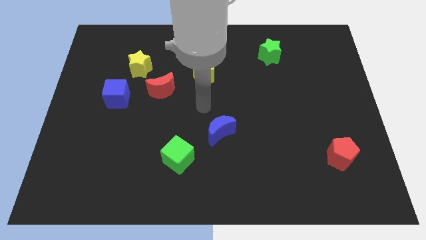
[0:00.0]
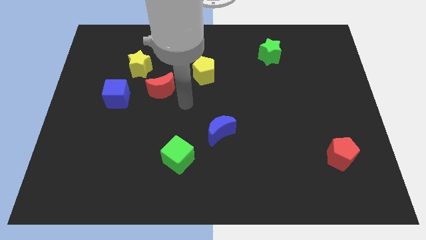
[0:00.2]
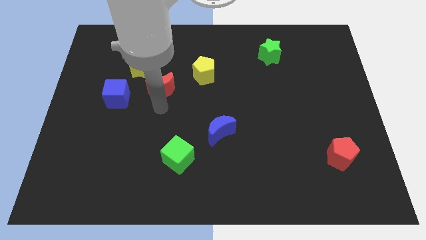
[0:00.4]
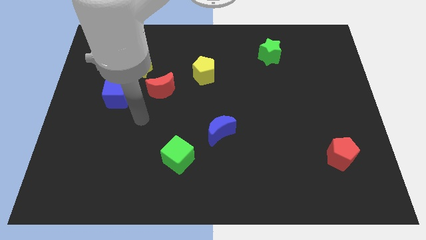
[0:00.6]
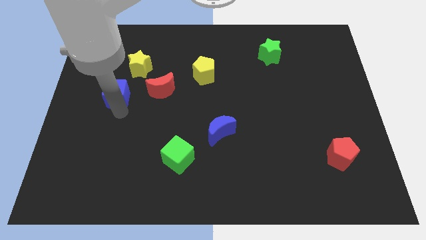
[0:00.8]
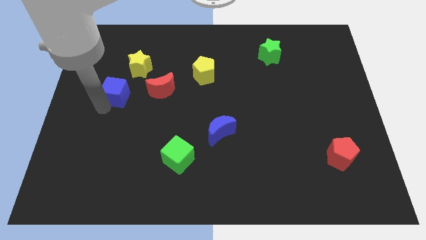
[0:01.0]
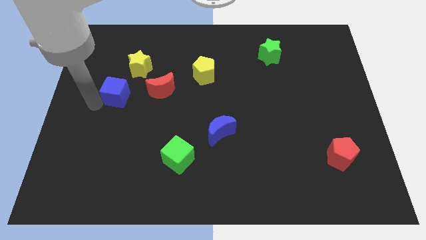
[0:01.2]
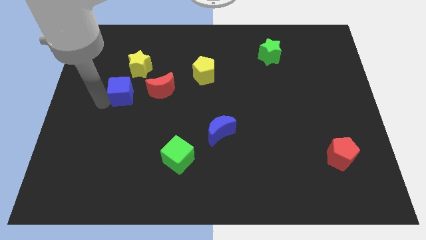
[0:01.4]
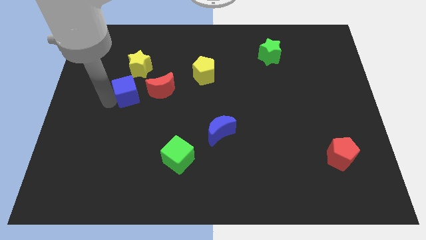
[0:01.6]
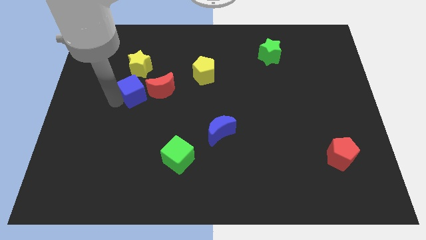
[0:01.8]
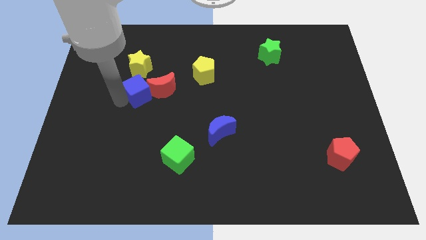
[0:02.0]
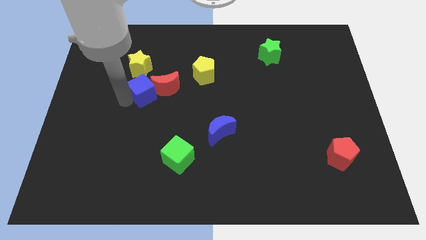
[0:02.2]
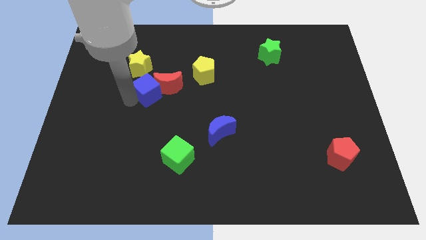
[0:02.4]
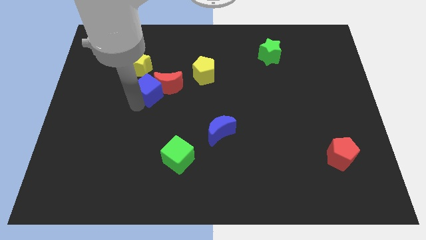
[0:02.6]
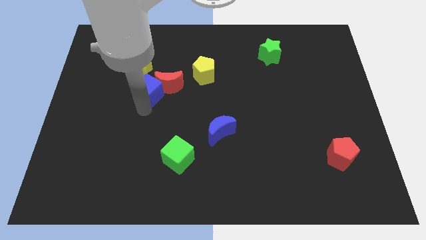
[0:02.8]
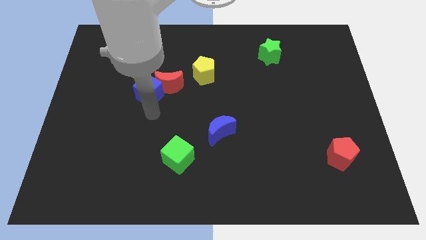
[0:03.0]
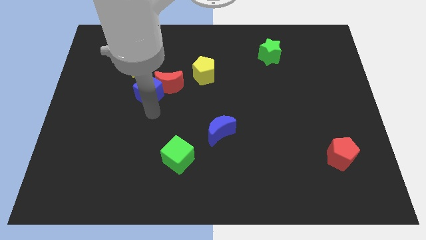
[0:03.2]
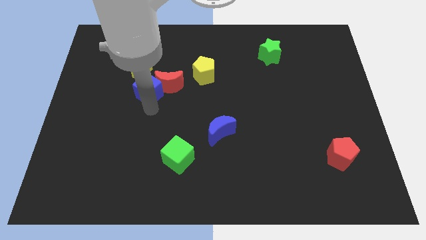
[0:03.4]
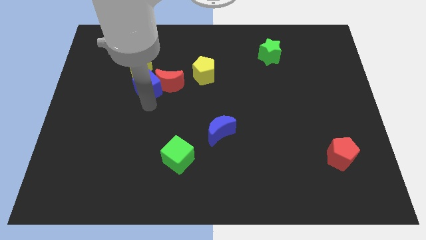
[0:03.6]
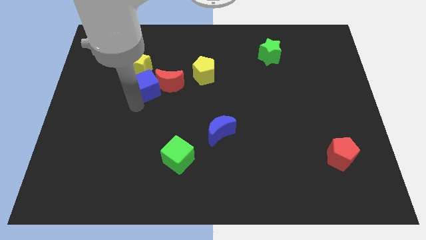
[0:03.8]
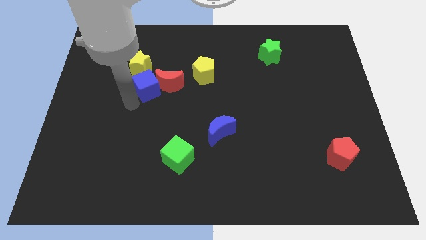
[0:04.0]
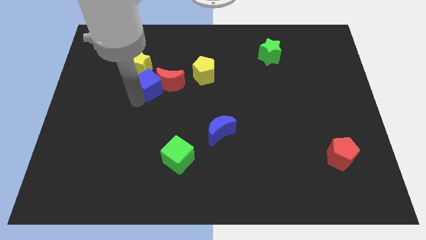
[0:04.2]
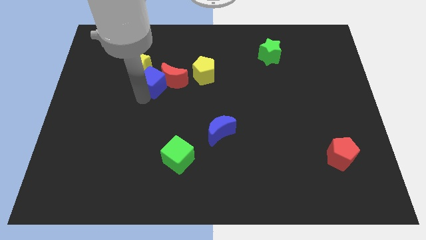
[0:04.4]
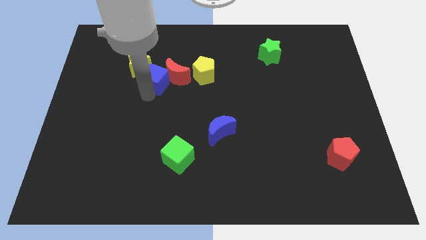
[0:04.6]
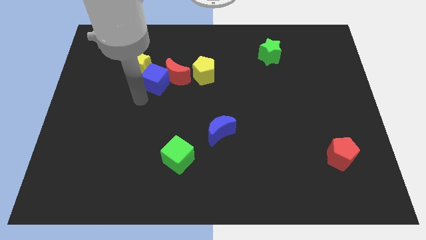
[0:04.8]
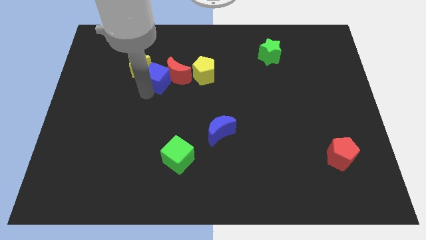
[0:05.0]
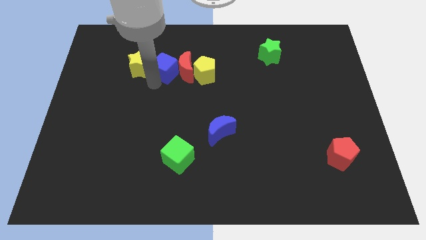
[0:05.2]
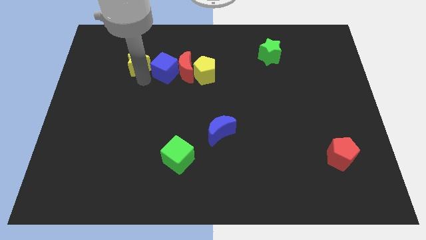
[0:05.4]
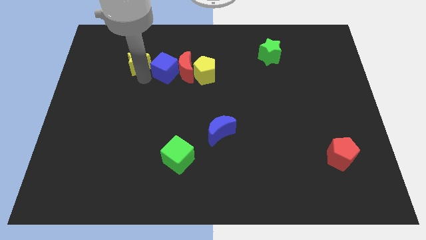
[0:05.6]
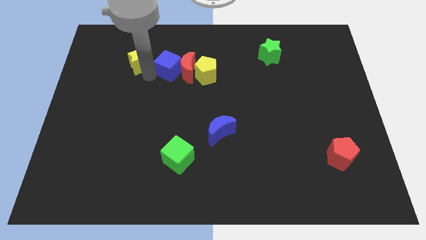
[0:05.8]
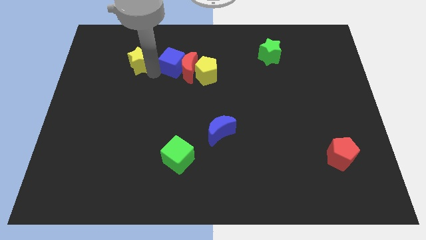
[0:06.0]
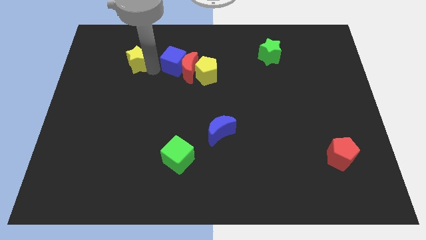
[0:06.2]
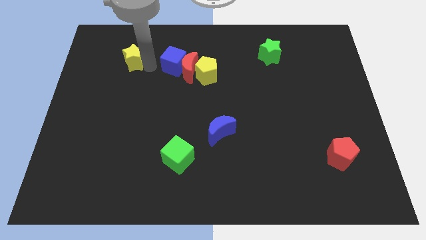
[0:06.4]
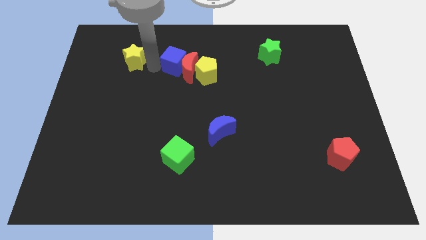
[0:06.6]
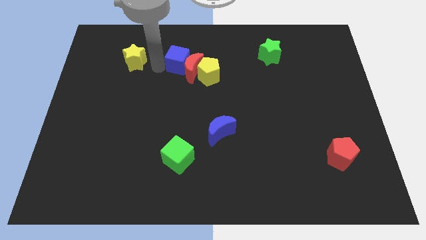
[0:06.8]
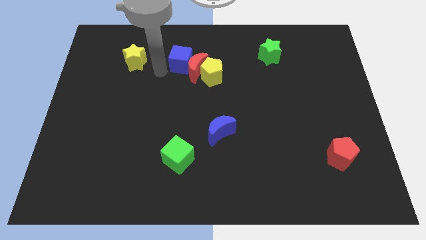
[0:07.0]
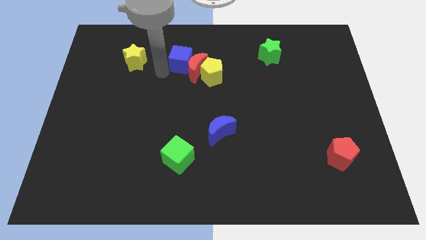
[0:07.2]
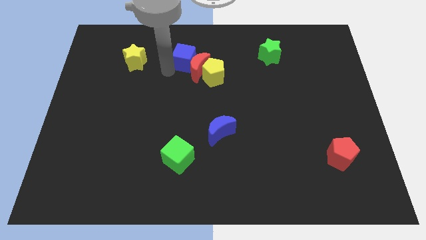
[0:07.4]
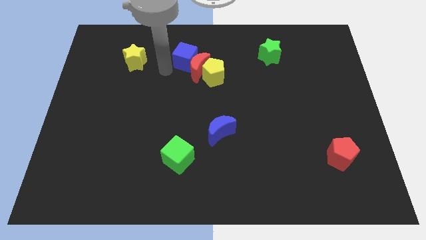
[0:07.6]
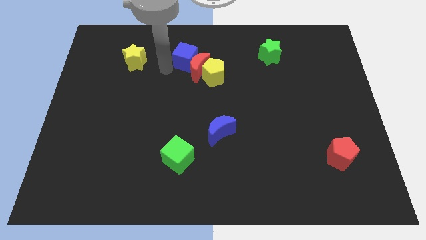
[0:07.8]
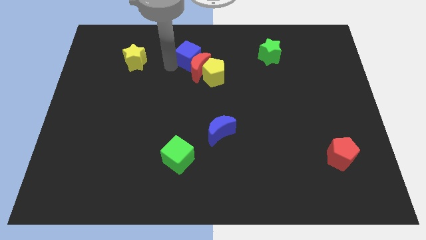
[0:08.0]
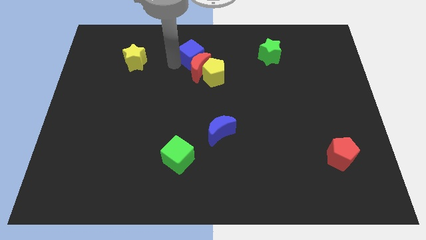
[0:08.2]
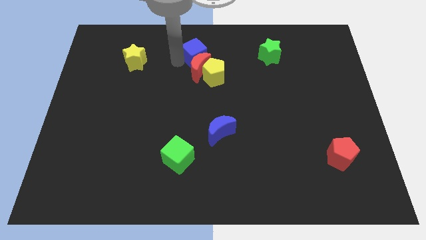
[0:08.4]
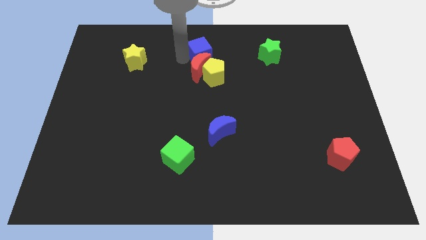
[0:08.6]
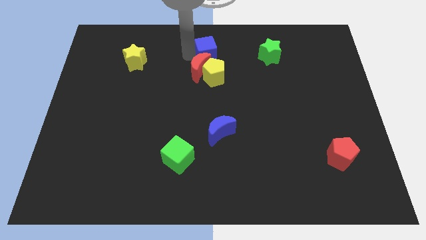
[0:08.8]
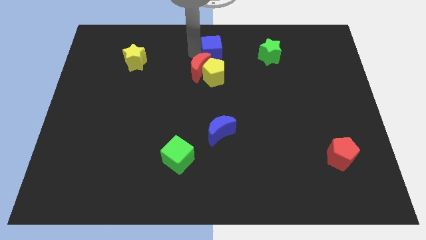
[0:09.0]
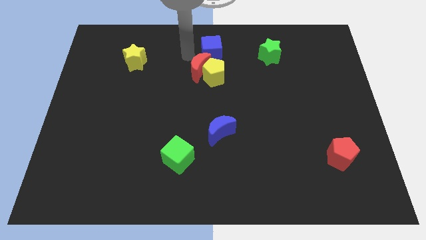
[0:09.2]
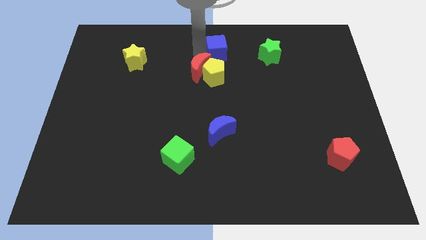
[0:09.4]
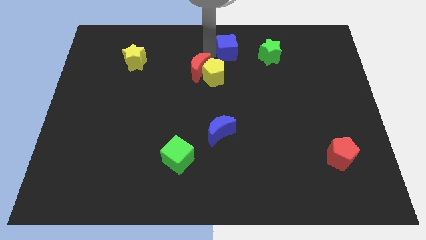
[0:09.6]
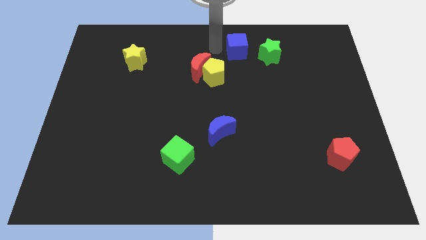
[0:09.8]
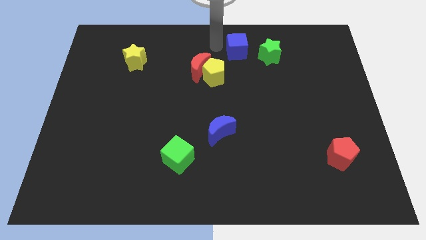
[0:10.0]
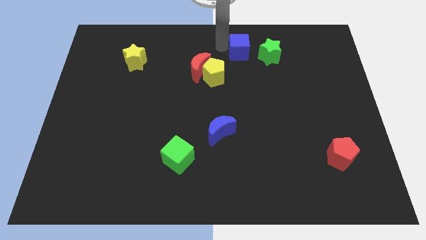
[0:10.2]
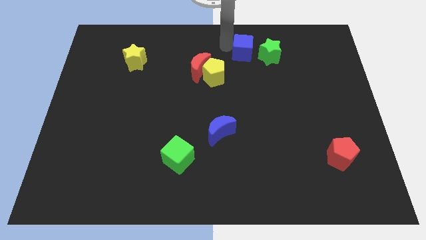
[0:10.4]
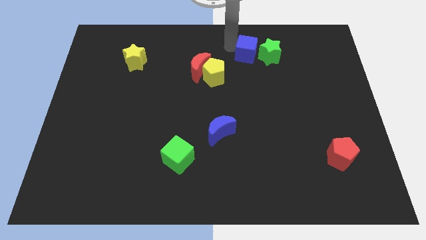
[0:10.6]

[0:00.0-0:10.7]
put the blue cube to the green star

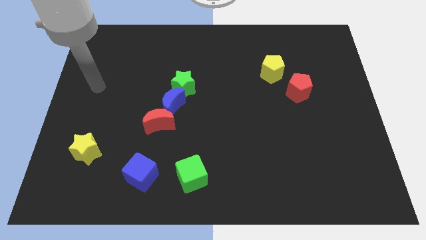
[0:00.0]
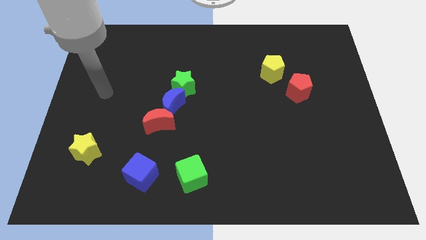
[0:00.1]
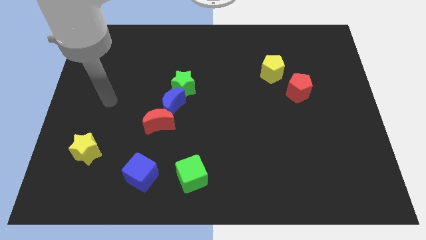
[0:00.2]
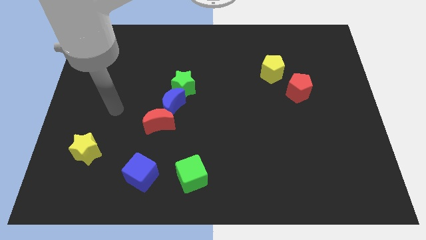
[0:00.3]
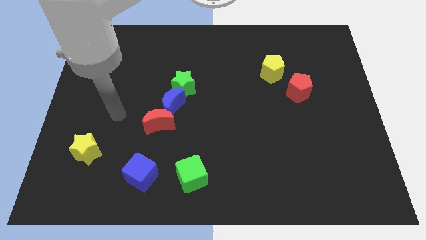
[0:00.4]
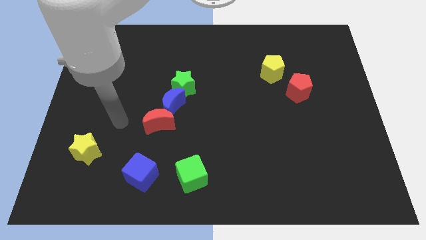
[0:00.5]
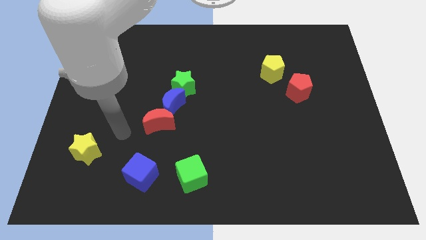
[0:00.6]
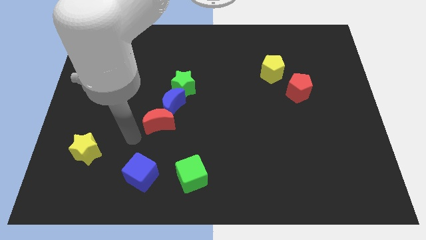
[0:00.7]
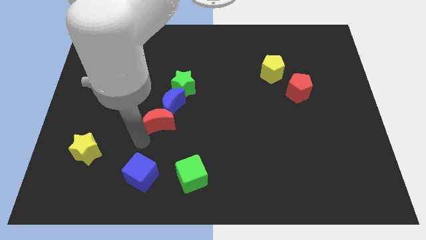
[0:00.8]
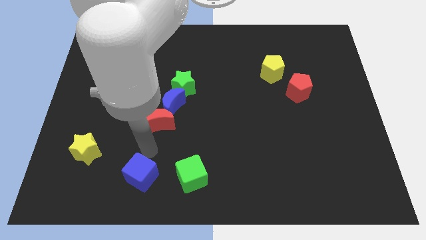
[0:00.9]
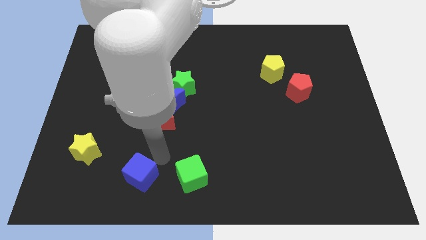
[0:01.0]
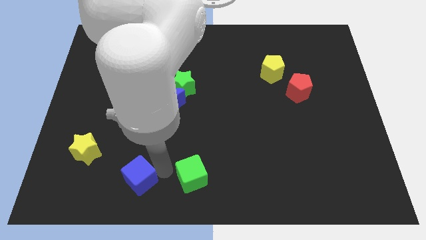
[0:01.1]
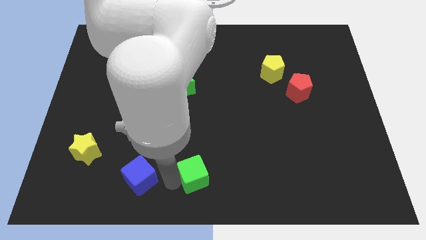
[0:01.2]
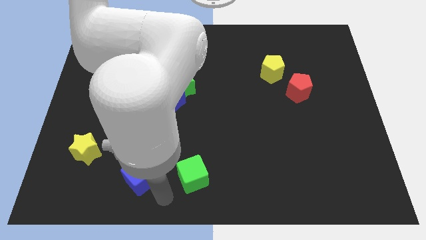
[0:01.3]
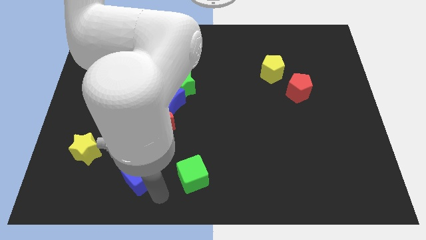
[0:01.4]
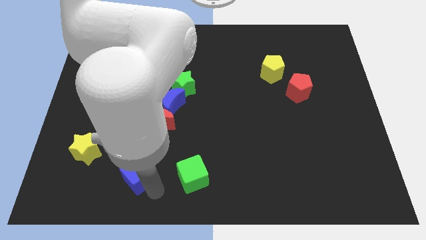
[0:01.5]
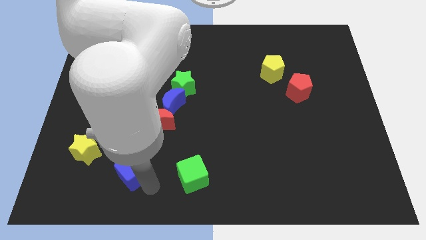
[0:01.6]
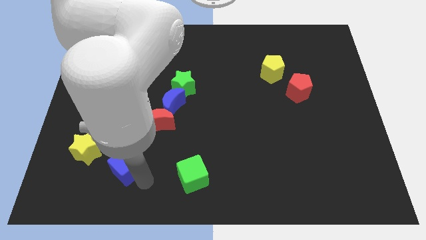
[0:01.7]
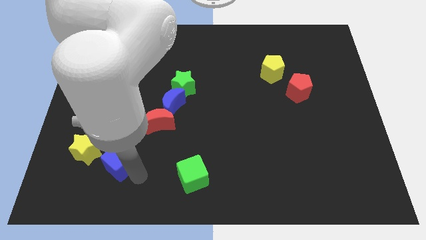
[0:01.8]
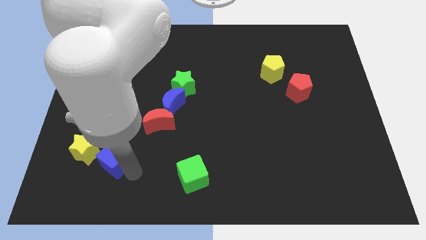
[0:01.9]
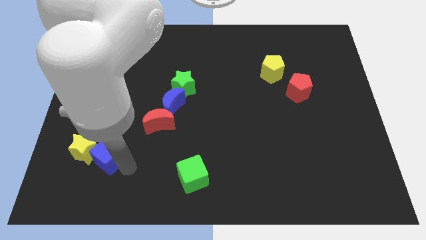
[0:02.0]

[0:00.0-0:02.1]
slide the blue cube towards the yellow star

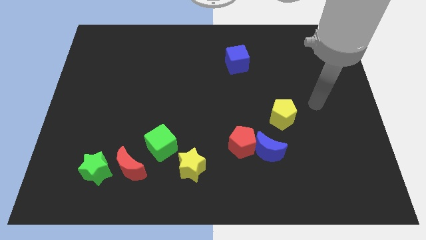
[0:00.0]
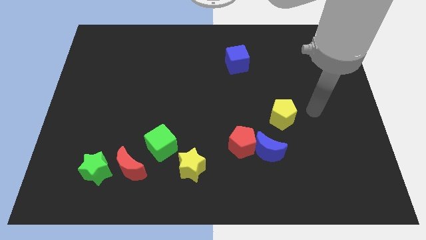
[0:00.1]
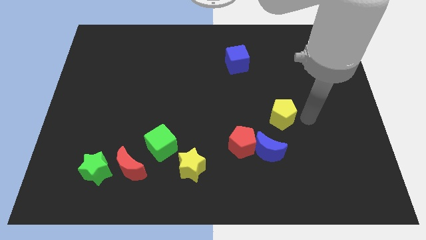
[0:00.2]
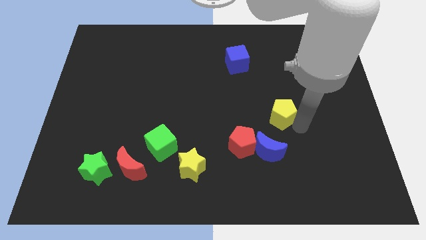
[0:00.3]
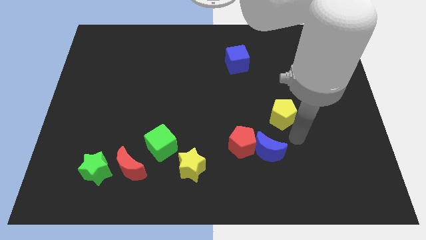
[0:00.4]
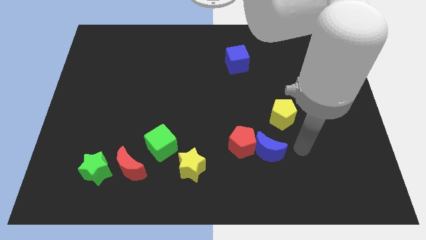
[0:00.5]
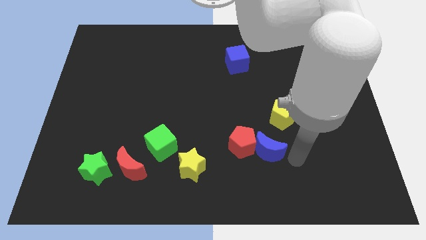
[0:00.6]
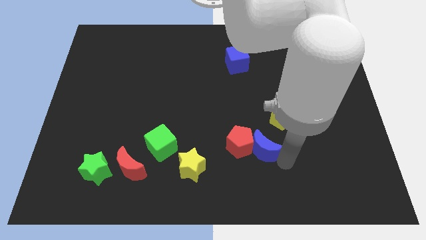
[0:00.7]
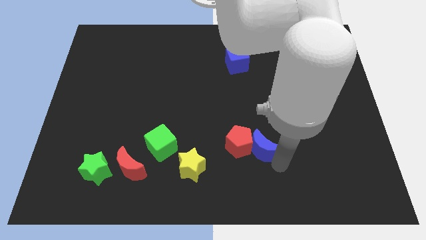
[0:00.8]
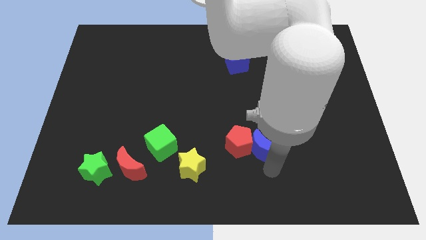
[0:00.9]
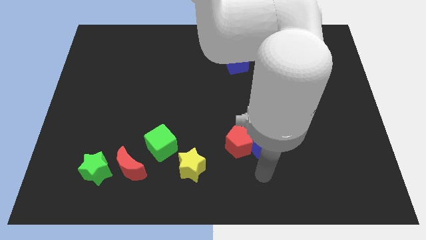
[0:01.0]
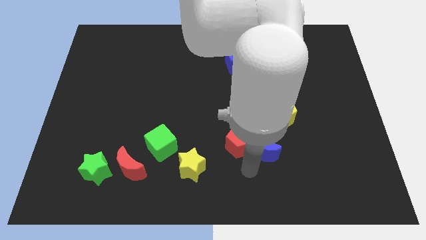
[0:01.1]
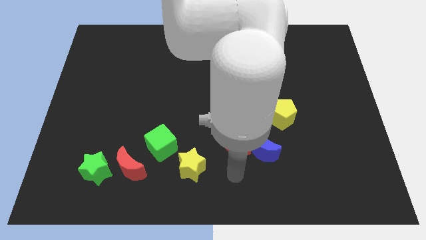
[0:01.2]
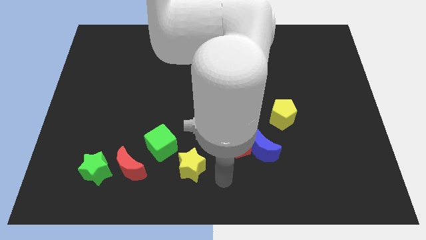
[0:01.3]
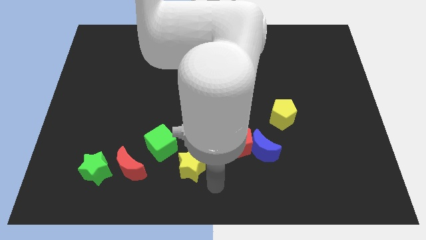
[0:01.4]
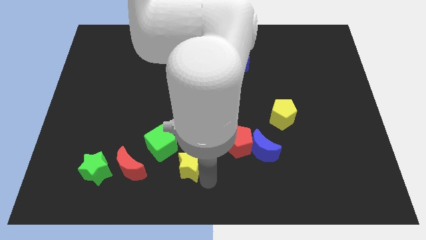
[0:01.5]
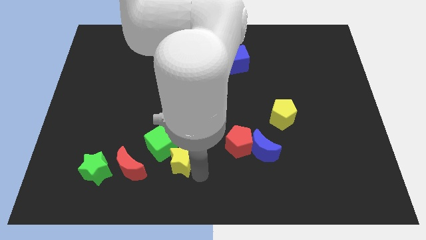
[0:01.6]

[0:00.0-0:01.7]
push the yellow star close to the green cube
